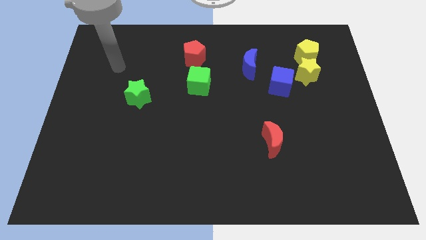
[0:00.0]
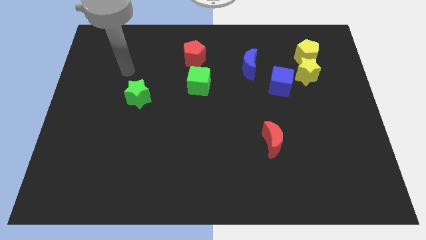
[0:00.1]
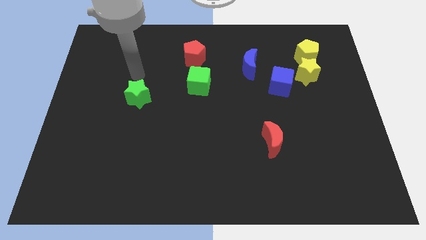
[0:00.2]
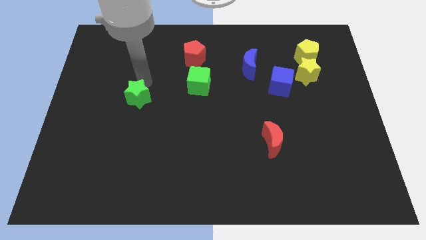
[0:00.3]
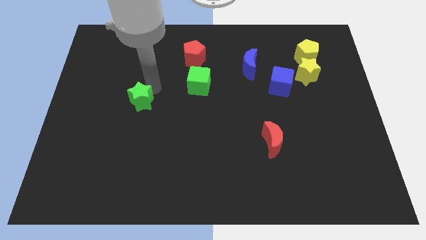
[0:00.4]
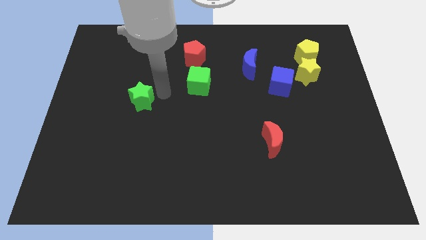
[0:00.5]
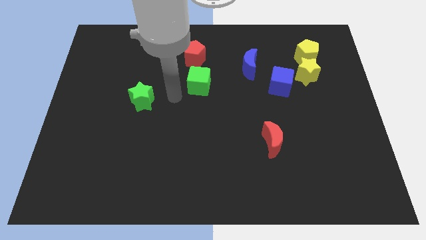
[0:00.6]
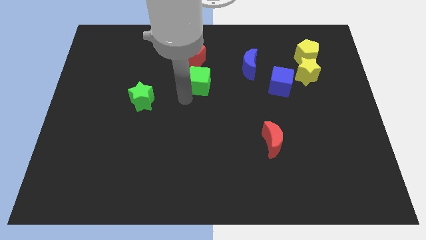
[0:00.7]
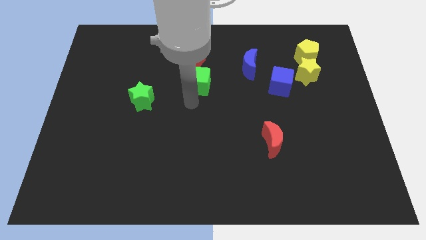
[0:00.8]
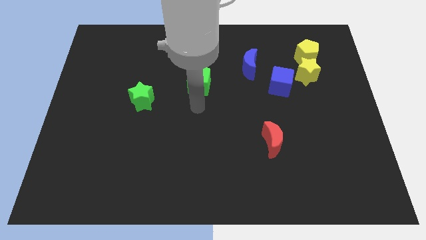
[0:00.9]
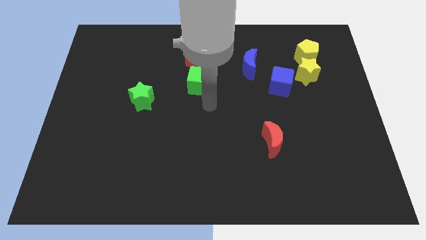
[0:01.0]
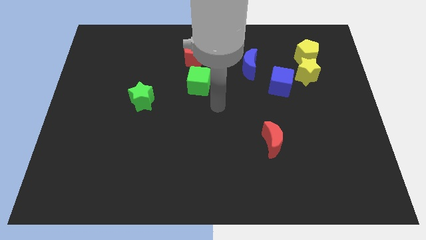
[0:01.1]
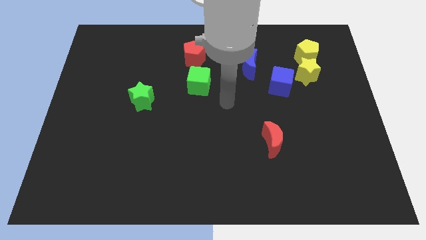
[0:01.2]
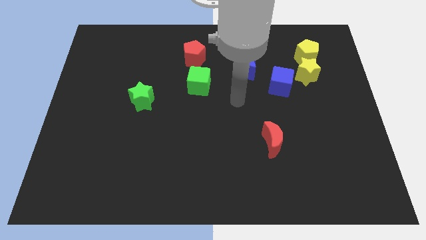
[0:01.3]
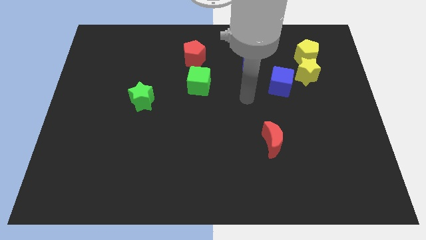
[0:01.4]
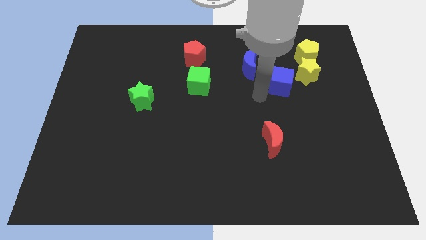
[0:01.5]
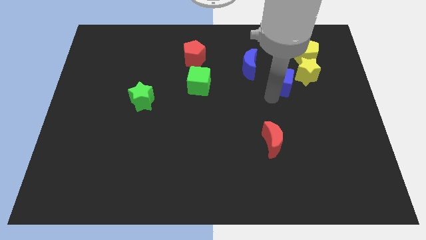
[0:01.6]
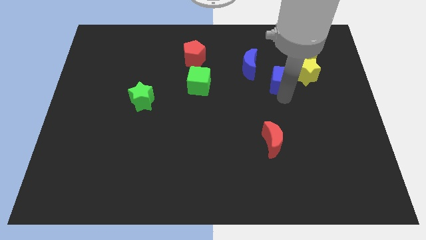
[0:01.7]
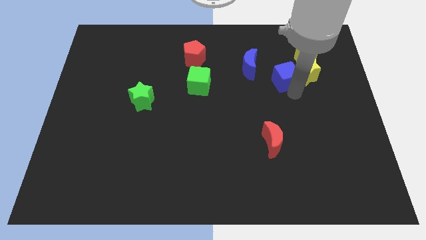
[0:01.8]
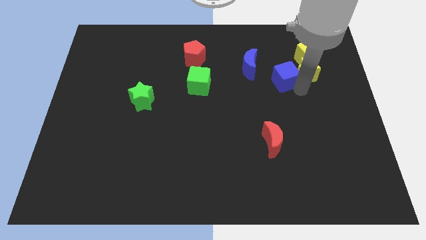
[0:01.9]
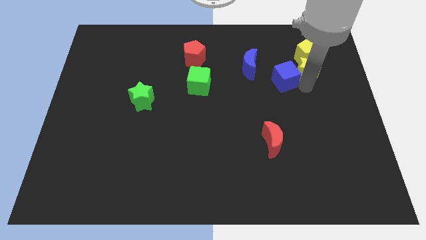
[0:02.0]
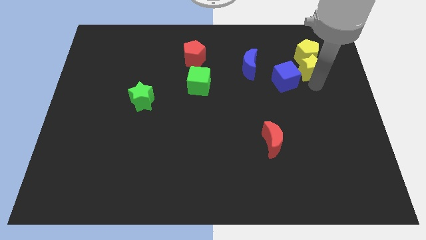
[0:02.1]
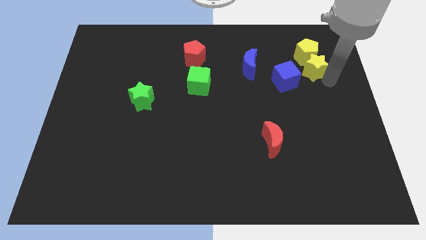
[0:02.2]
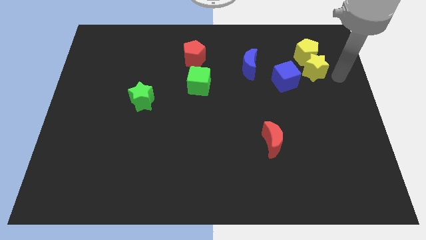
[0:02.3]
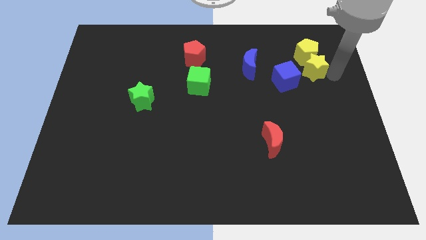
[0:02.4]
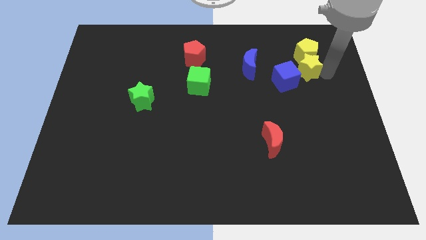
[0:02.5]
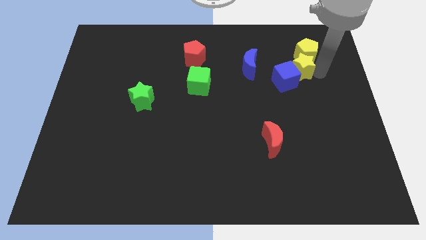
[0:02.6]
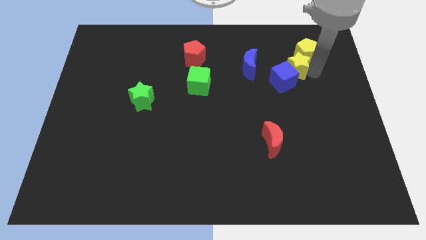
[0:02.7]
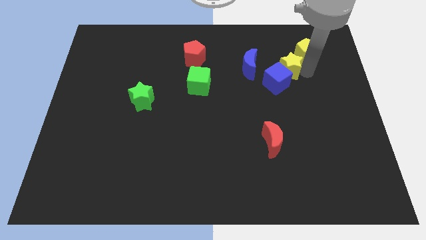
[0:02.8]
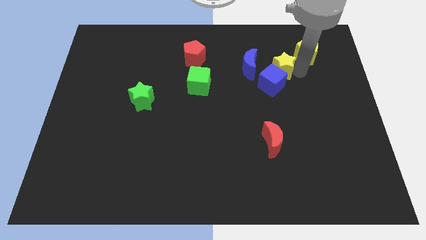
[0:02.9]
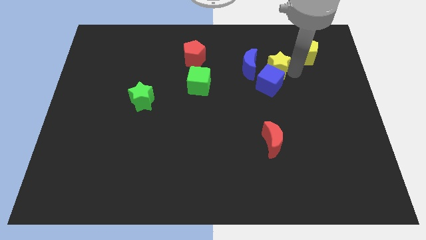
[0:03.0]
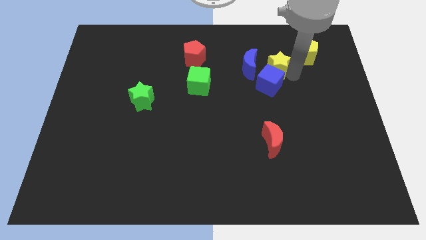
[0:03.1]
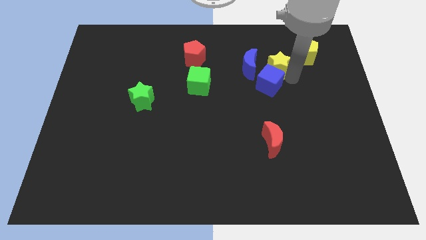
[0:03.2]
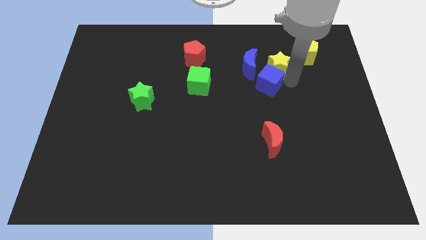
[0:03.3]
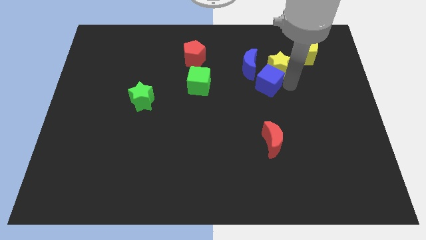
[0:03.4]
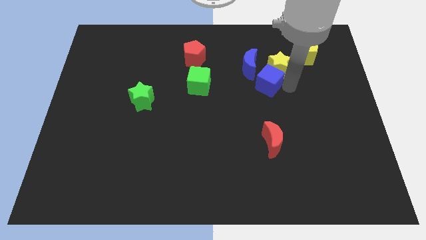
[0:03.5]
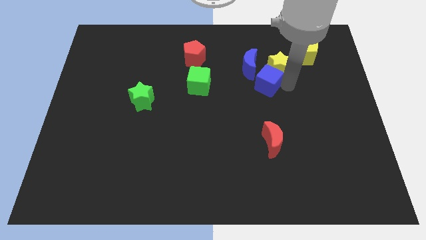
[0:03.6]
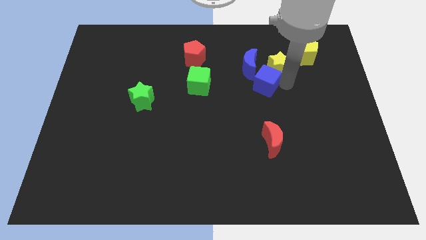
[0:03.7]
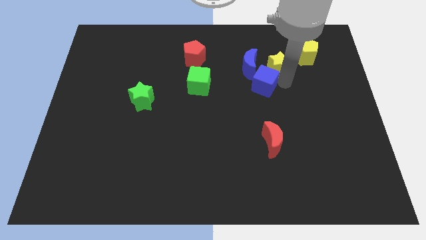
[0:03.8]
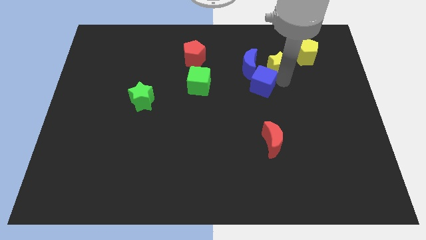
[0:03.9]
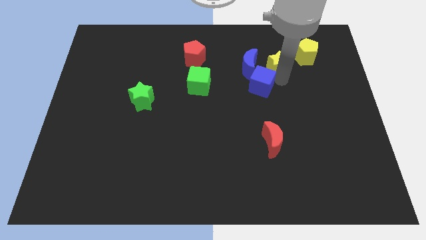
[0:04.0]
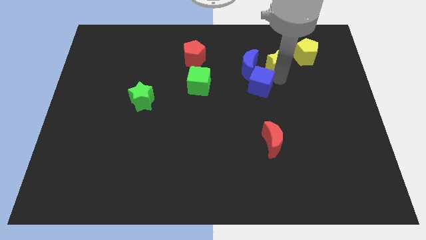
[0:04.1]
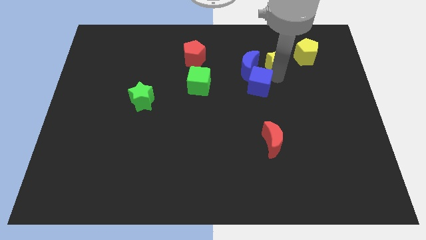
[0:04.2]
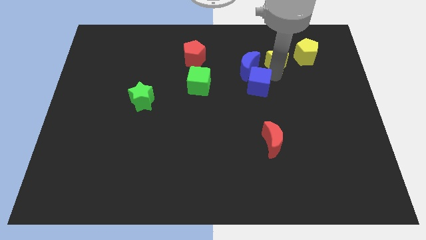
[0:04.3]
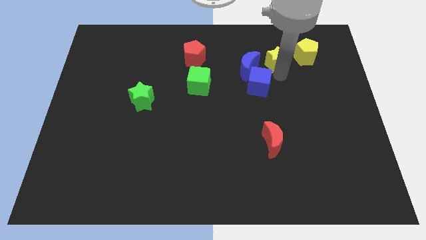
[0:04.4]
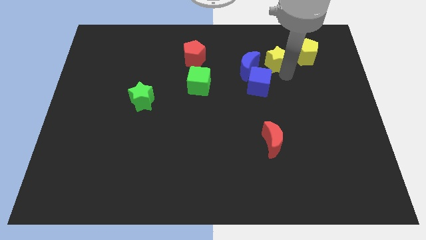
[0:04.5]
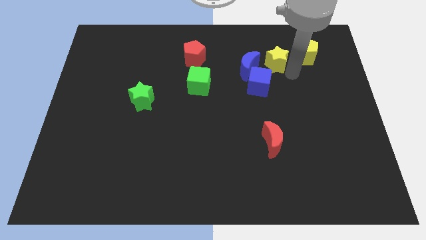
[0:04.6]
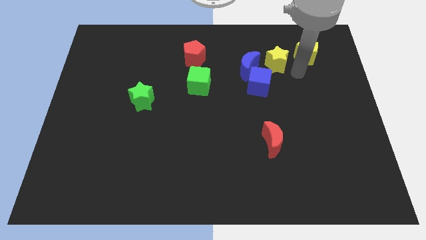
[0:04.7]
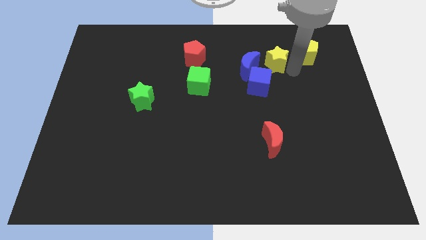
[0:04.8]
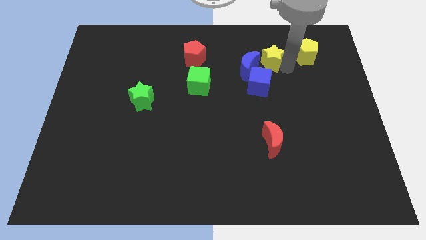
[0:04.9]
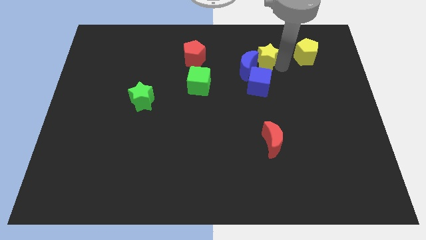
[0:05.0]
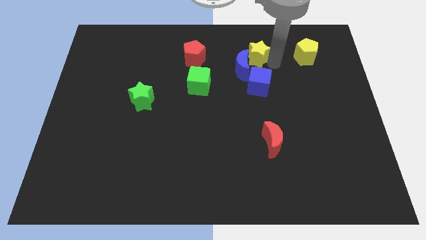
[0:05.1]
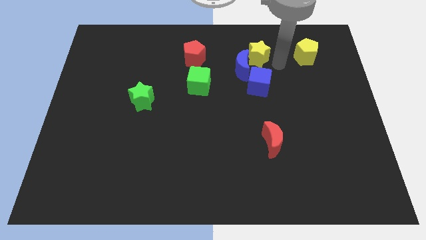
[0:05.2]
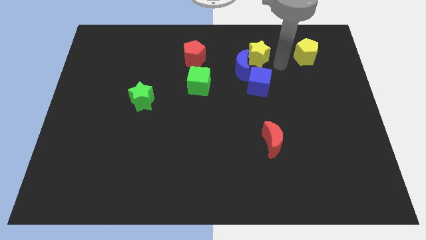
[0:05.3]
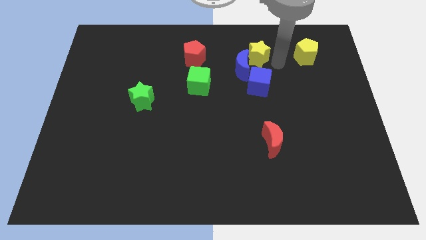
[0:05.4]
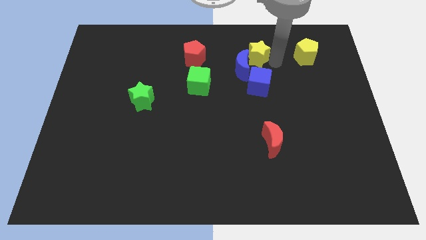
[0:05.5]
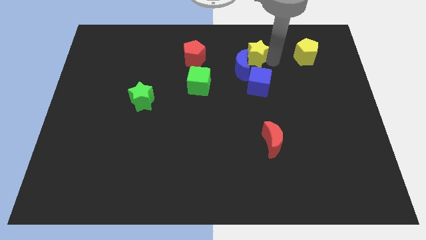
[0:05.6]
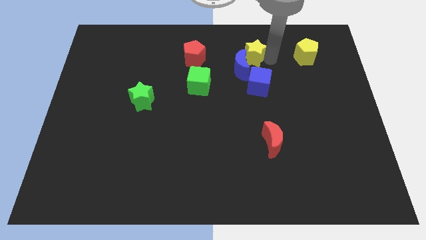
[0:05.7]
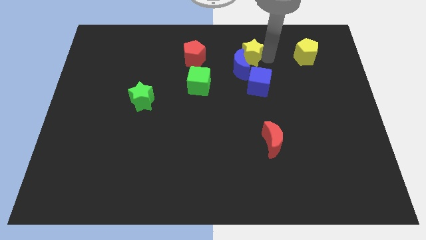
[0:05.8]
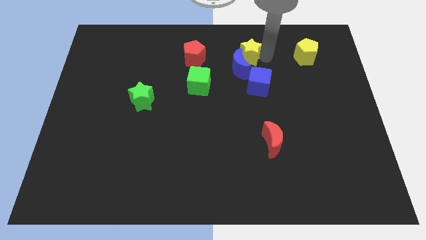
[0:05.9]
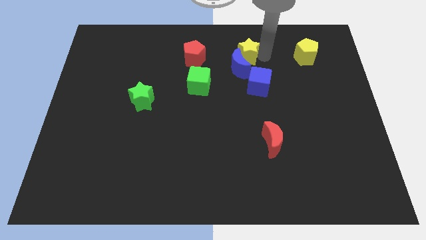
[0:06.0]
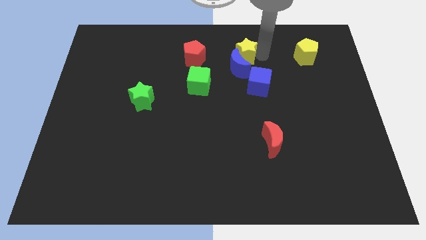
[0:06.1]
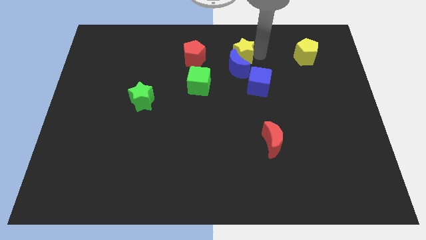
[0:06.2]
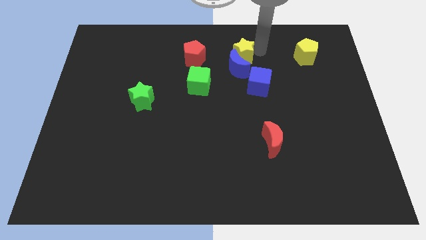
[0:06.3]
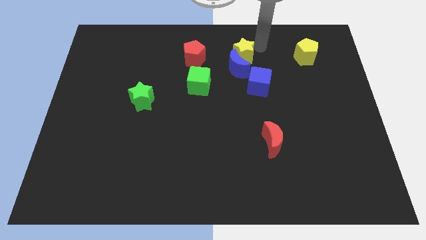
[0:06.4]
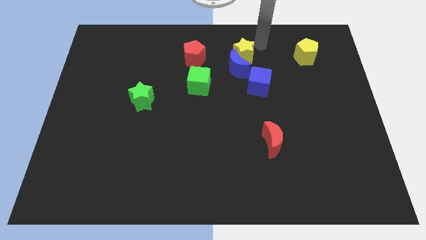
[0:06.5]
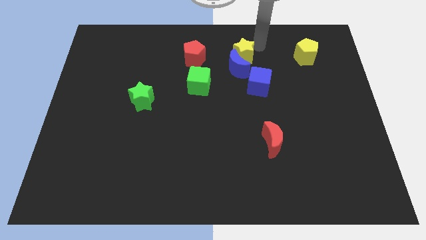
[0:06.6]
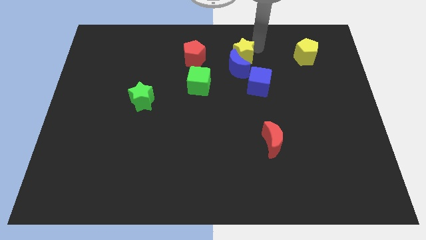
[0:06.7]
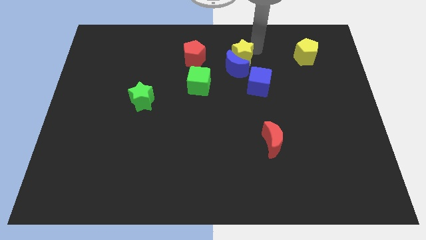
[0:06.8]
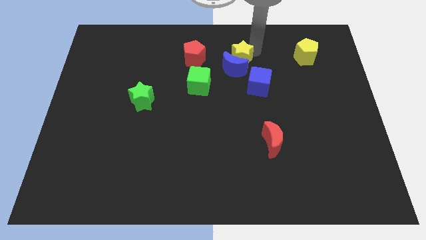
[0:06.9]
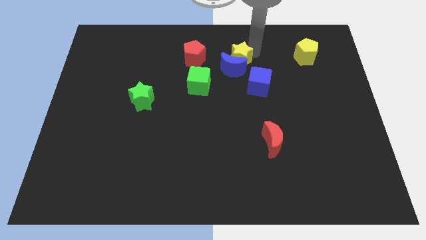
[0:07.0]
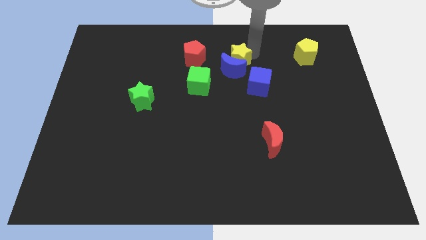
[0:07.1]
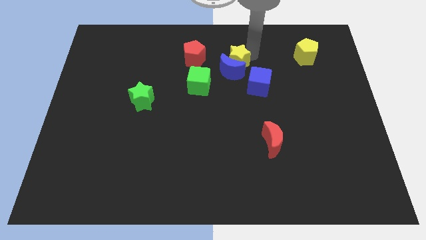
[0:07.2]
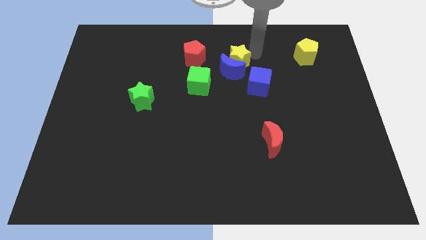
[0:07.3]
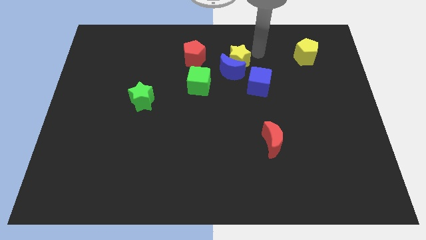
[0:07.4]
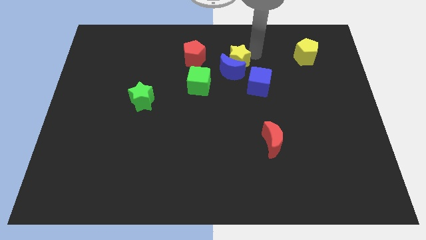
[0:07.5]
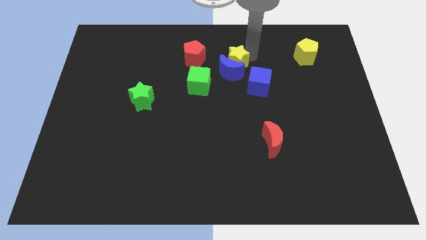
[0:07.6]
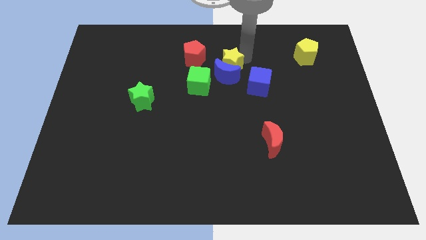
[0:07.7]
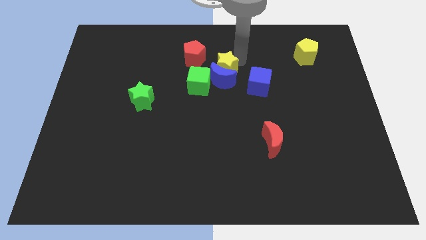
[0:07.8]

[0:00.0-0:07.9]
move the yellow star to the left

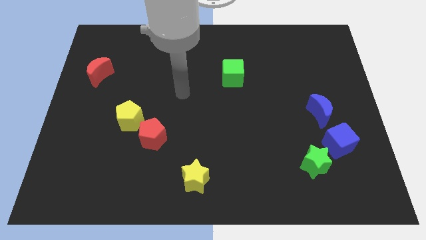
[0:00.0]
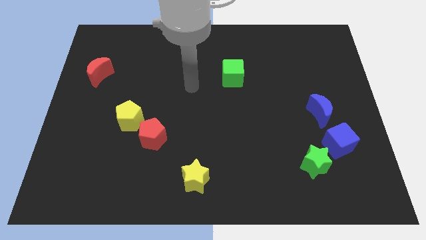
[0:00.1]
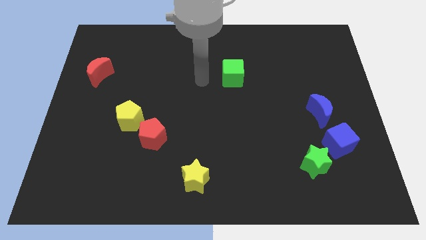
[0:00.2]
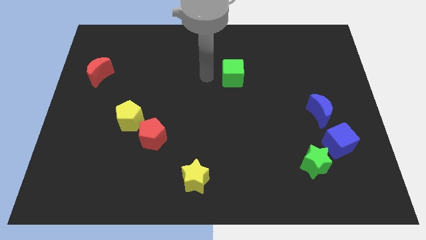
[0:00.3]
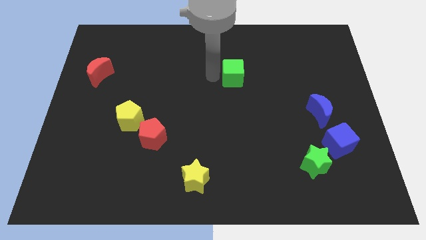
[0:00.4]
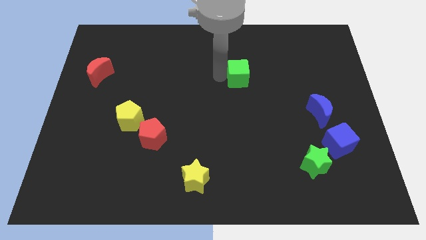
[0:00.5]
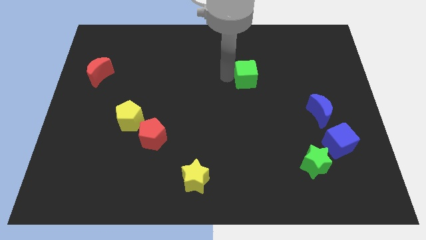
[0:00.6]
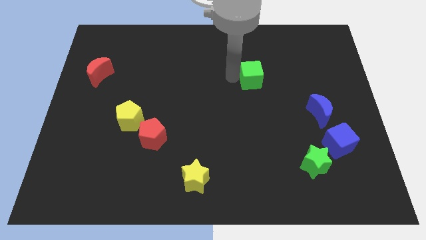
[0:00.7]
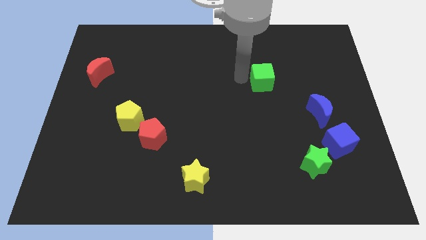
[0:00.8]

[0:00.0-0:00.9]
push the green cube to the right somewhat
